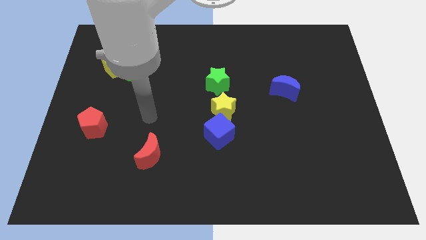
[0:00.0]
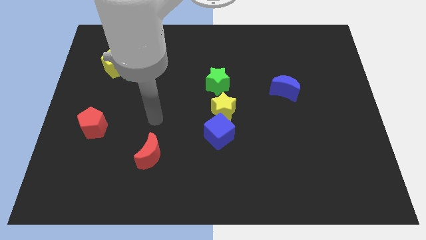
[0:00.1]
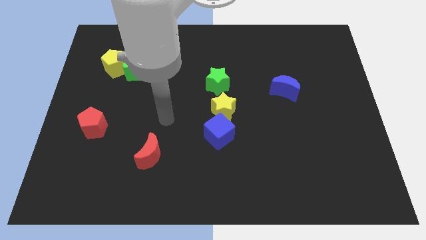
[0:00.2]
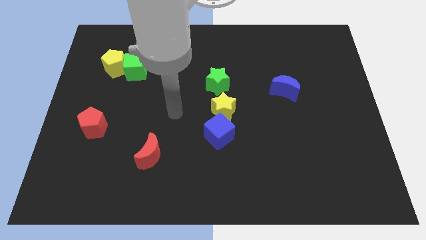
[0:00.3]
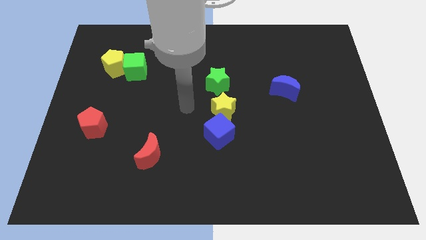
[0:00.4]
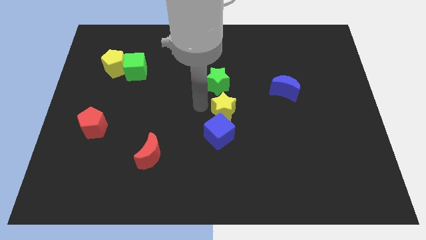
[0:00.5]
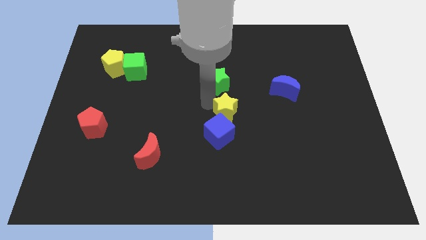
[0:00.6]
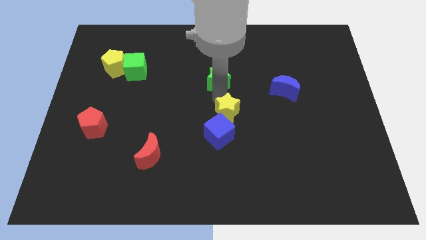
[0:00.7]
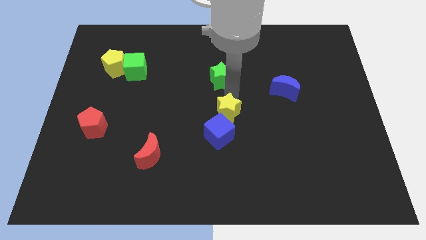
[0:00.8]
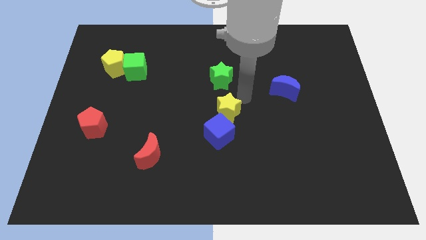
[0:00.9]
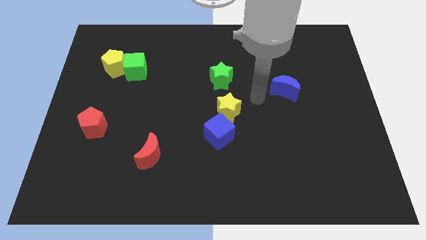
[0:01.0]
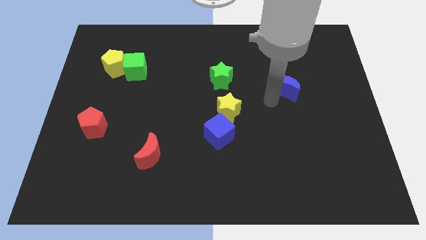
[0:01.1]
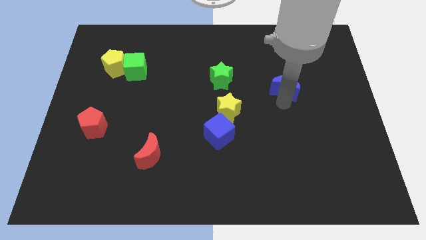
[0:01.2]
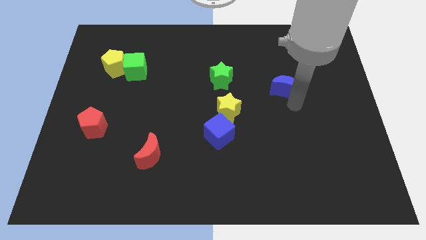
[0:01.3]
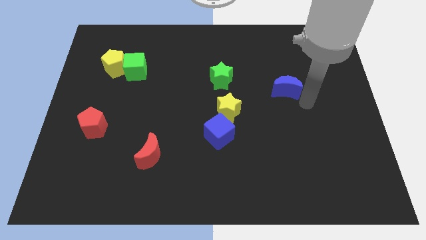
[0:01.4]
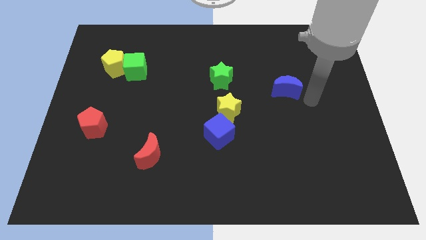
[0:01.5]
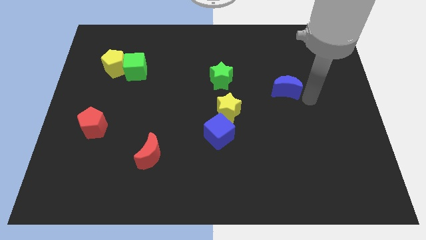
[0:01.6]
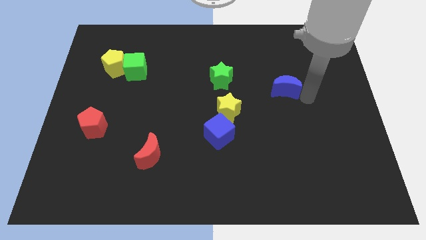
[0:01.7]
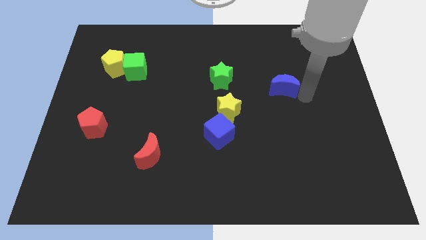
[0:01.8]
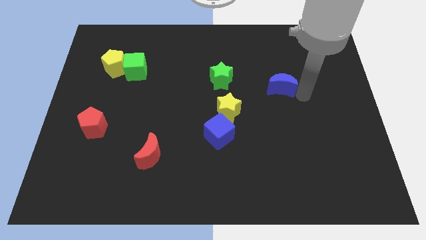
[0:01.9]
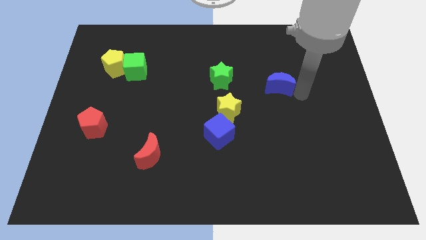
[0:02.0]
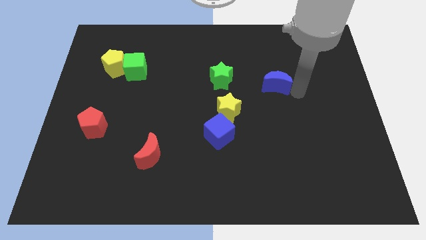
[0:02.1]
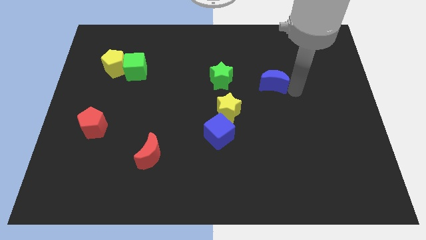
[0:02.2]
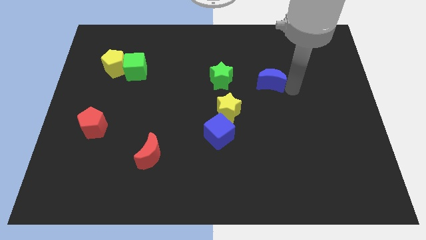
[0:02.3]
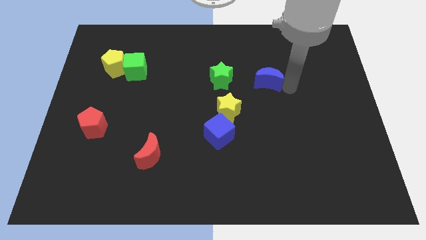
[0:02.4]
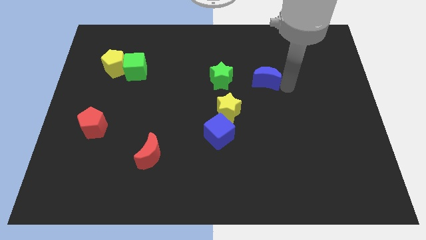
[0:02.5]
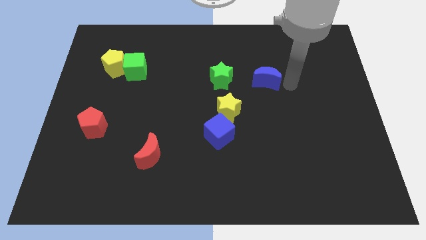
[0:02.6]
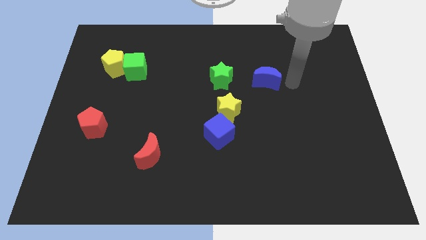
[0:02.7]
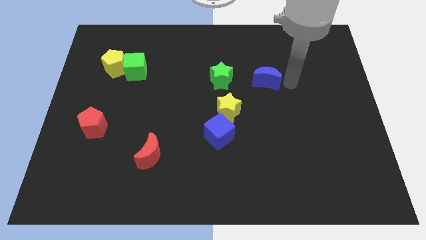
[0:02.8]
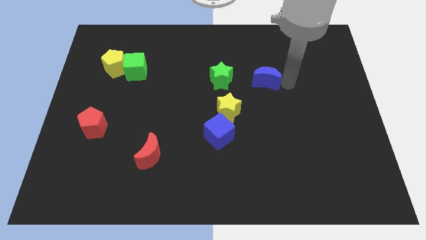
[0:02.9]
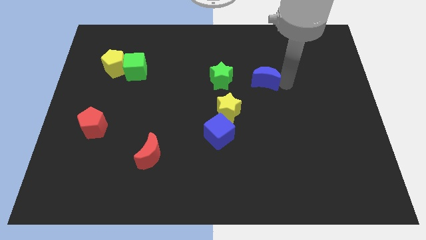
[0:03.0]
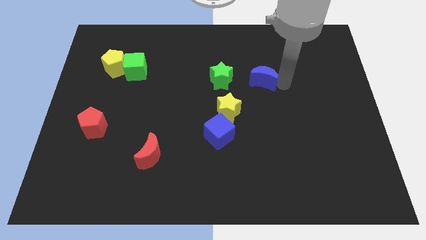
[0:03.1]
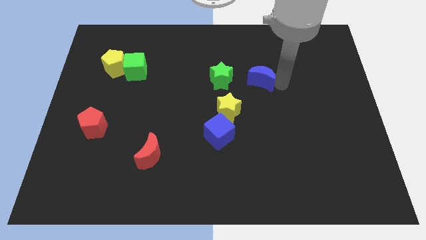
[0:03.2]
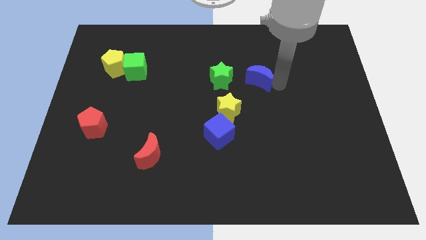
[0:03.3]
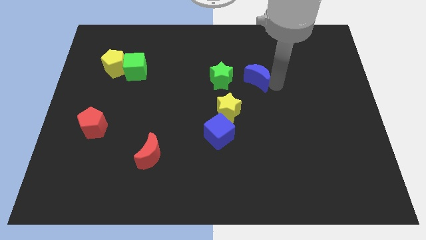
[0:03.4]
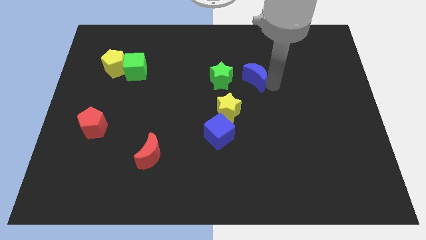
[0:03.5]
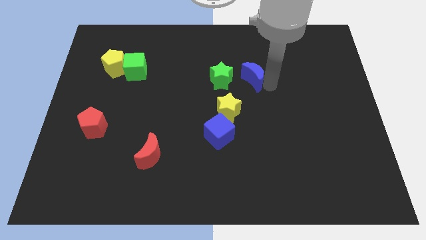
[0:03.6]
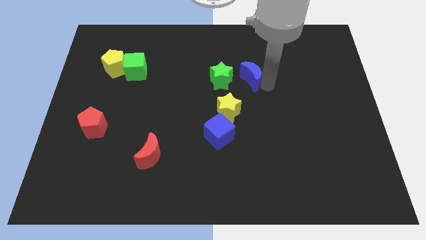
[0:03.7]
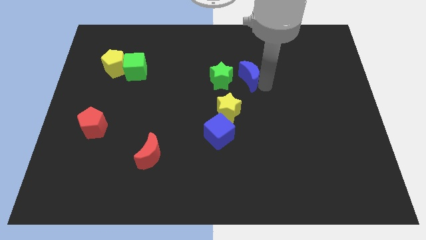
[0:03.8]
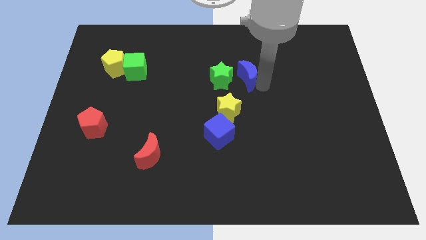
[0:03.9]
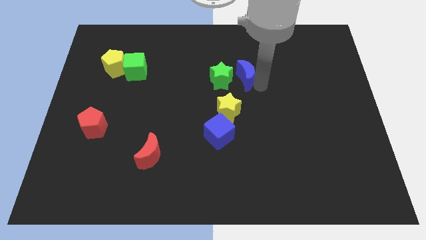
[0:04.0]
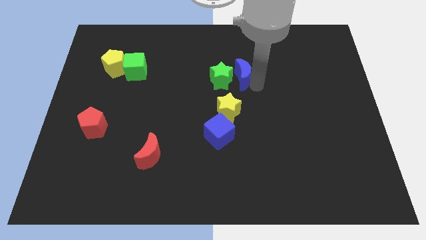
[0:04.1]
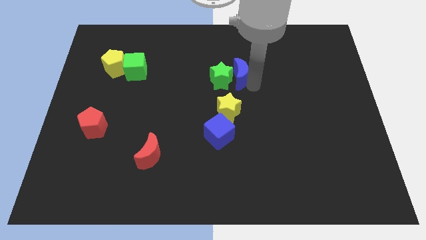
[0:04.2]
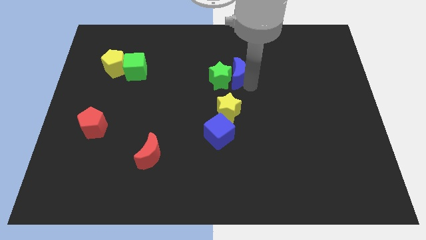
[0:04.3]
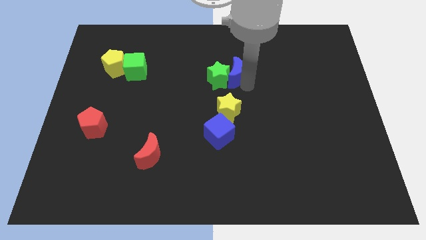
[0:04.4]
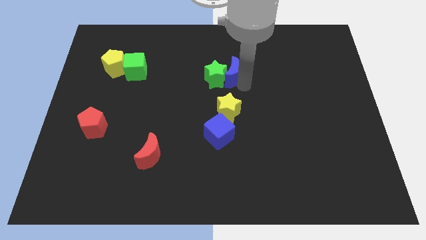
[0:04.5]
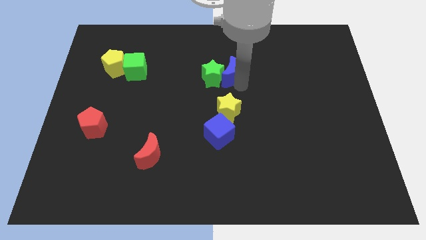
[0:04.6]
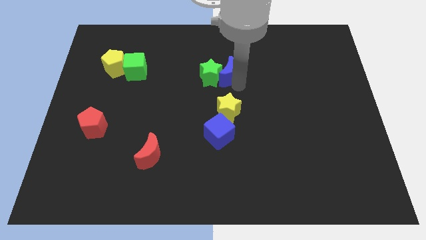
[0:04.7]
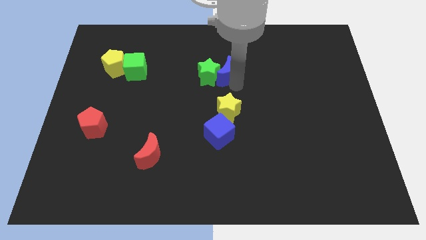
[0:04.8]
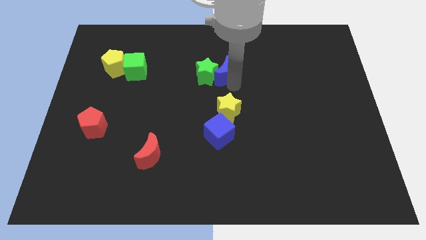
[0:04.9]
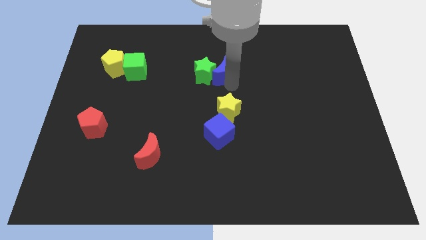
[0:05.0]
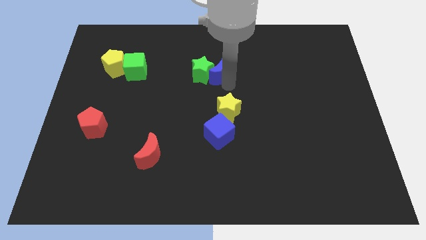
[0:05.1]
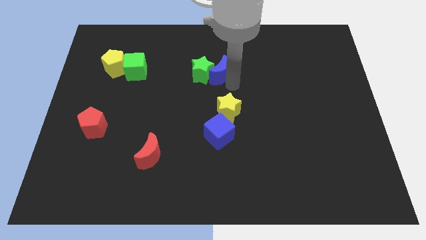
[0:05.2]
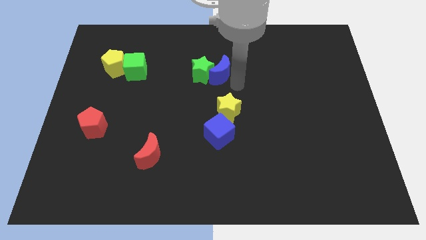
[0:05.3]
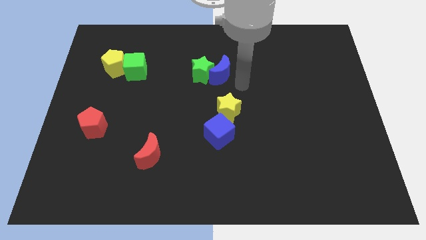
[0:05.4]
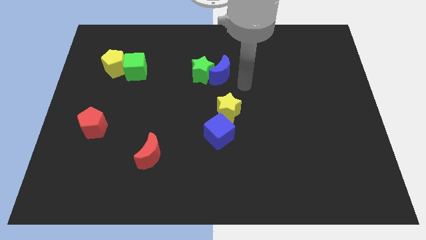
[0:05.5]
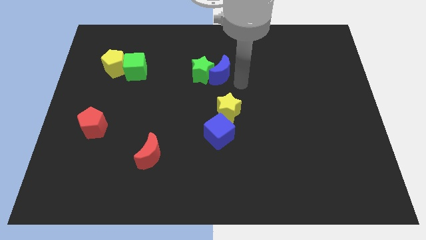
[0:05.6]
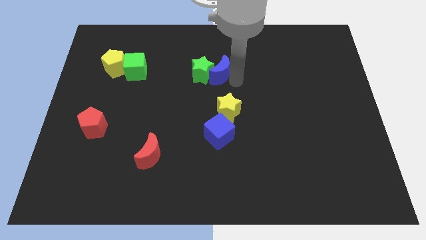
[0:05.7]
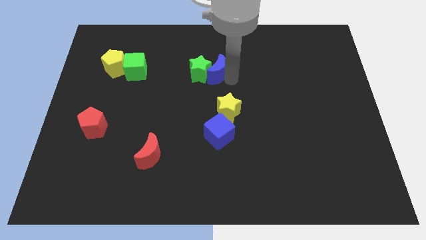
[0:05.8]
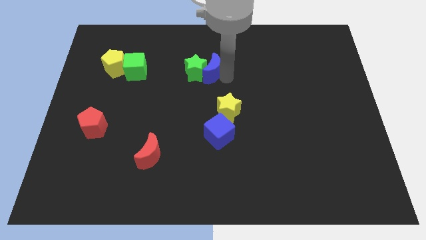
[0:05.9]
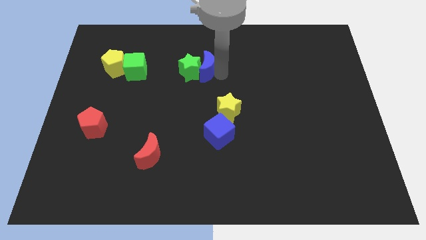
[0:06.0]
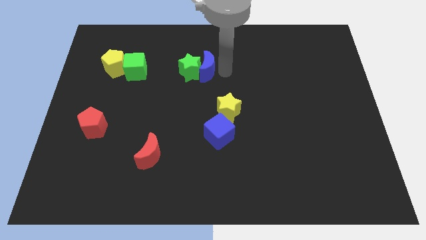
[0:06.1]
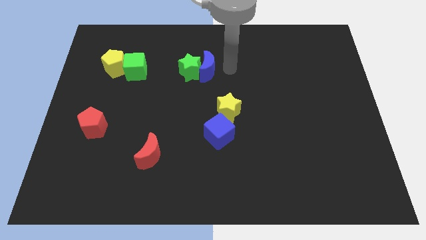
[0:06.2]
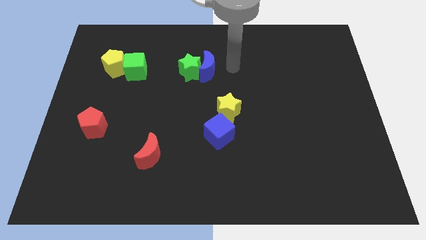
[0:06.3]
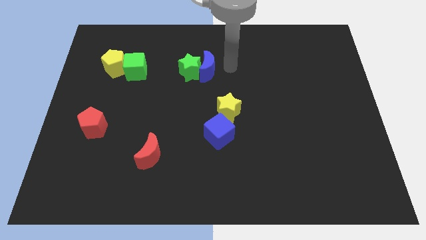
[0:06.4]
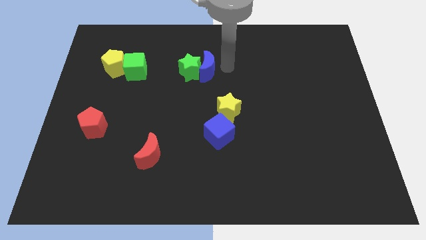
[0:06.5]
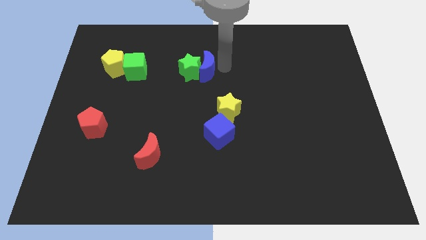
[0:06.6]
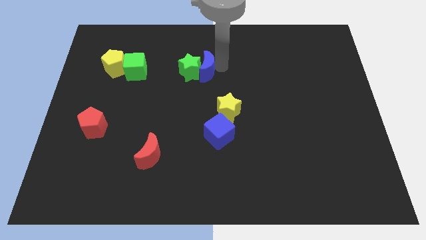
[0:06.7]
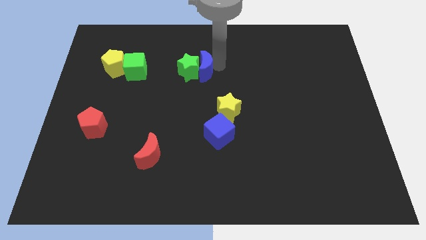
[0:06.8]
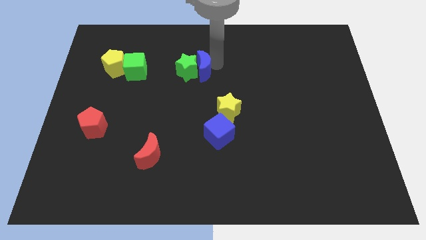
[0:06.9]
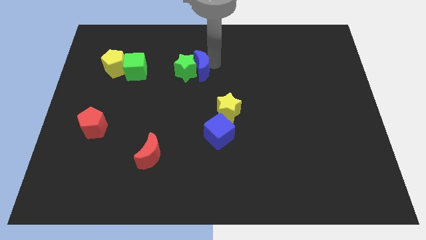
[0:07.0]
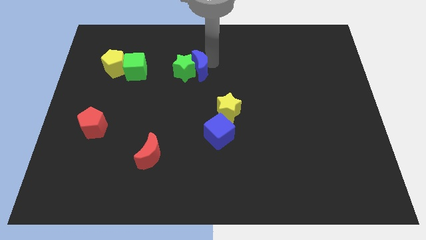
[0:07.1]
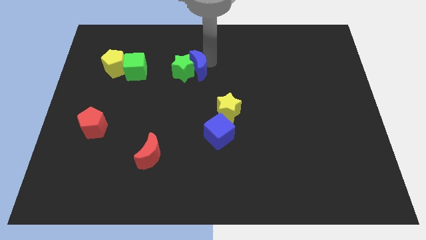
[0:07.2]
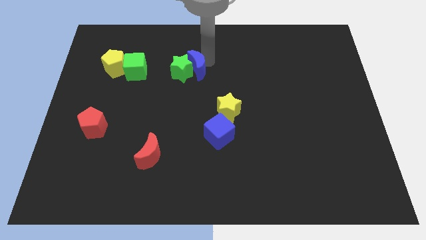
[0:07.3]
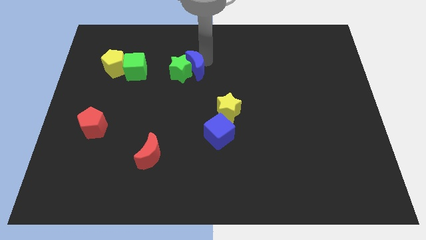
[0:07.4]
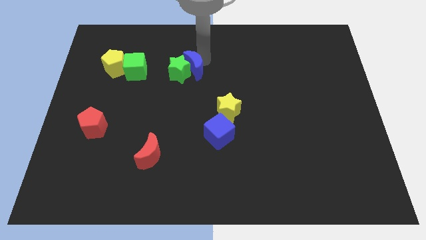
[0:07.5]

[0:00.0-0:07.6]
move the blue moon to the left

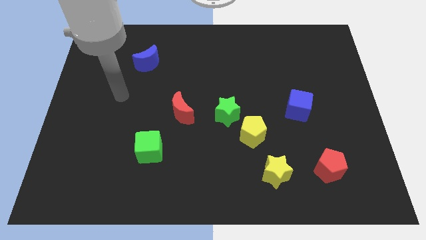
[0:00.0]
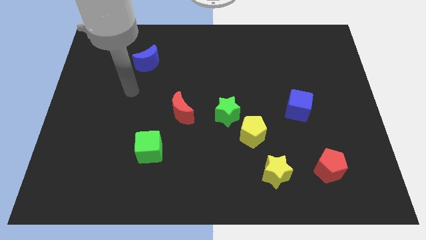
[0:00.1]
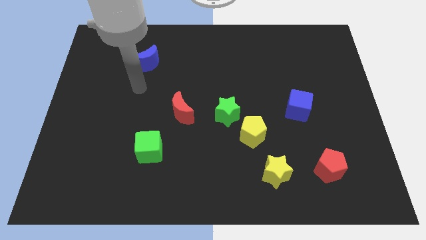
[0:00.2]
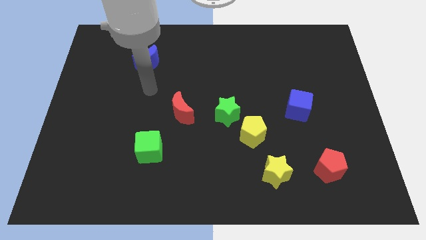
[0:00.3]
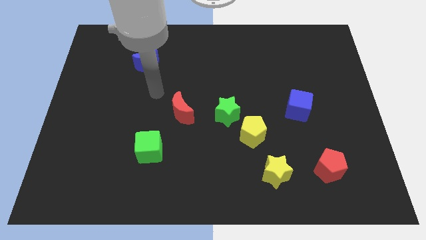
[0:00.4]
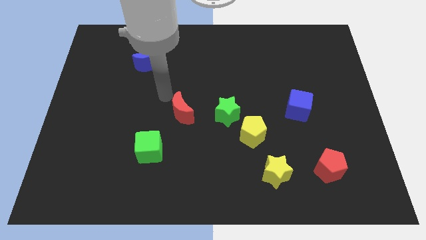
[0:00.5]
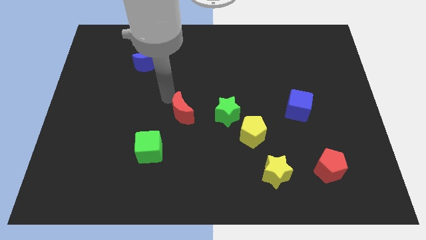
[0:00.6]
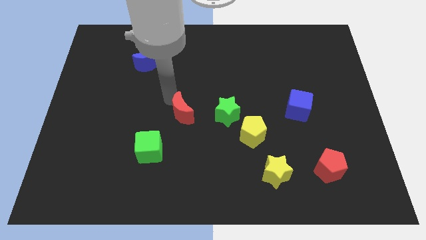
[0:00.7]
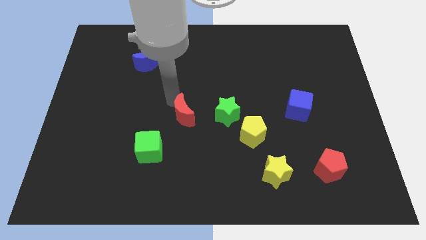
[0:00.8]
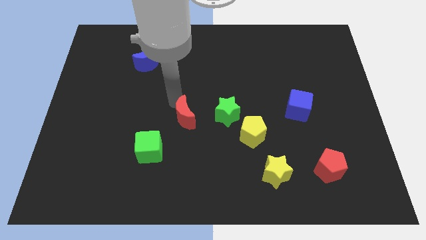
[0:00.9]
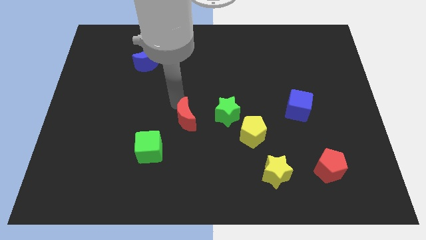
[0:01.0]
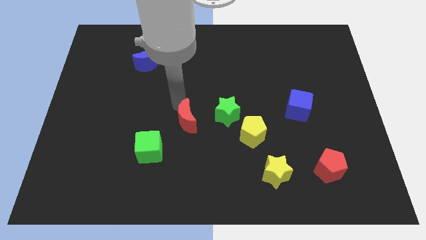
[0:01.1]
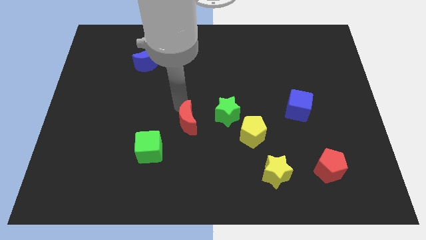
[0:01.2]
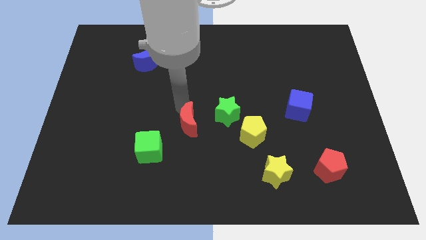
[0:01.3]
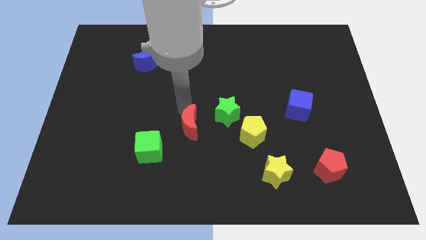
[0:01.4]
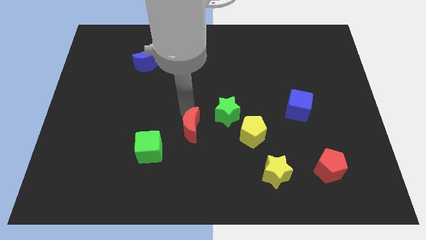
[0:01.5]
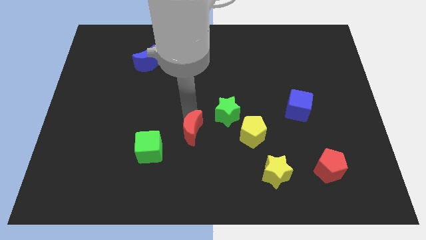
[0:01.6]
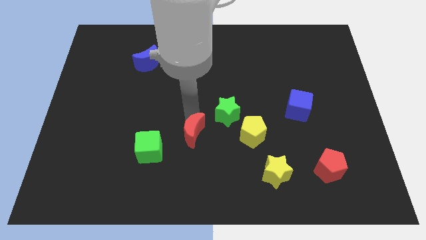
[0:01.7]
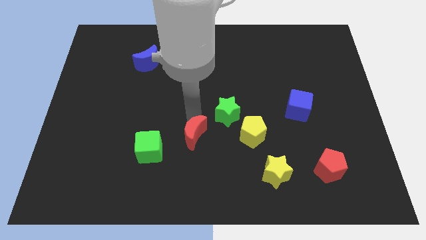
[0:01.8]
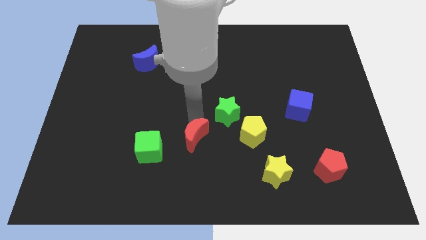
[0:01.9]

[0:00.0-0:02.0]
move the red moon a bit diagonally downwards and to the right
